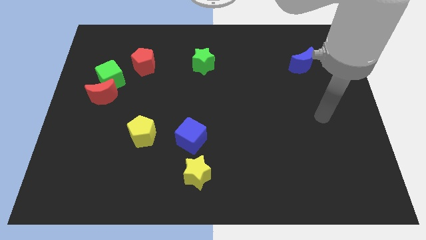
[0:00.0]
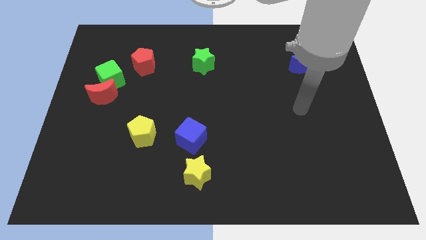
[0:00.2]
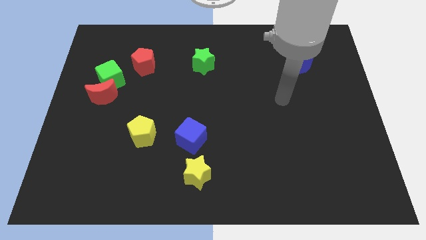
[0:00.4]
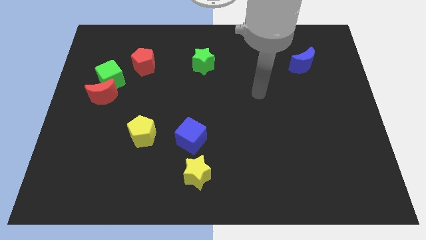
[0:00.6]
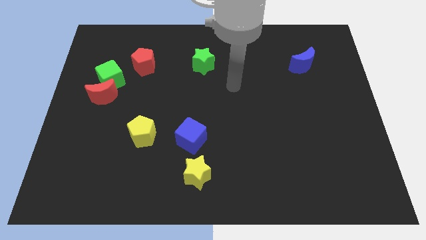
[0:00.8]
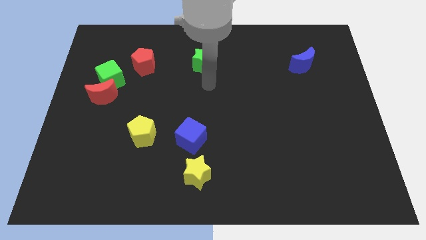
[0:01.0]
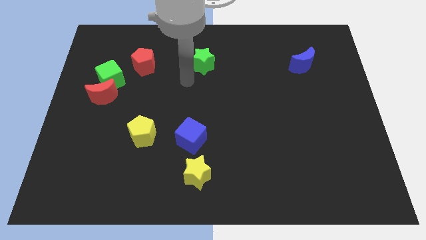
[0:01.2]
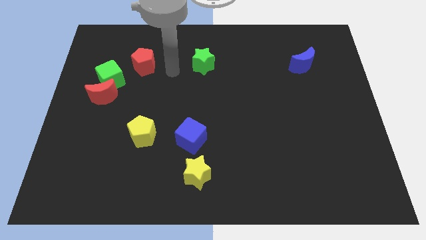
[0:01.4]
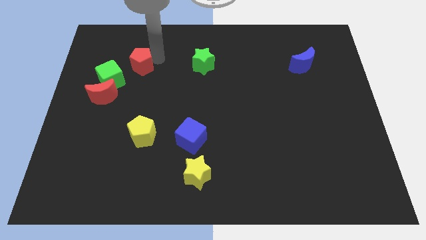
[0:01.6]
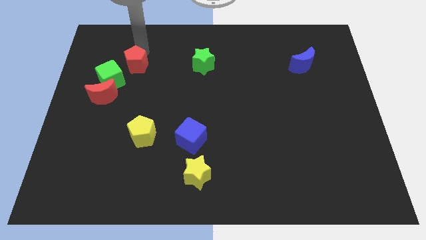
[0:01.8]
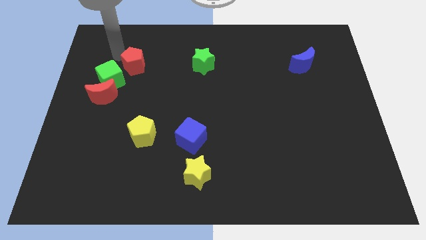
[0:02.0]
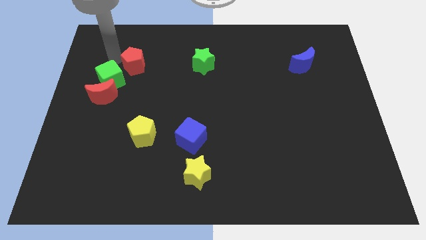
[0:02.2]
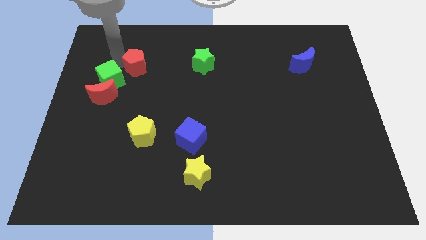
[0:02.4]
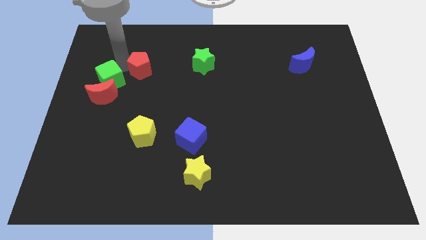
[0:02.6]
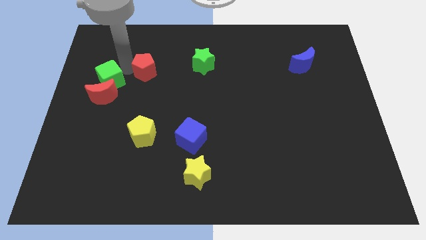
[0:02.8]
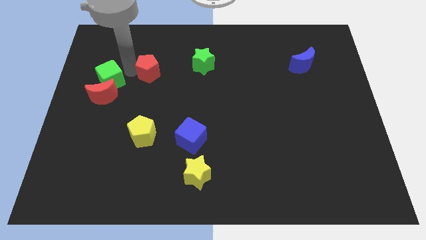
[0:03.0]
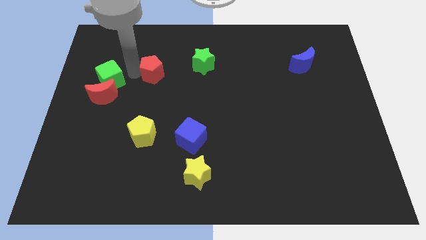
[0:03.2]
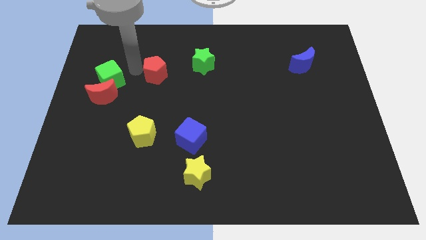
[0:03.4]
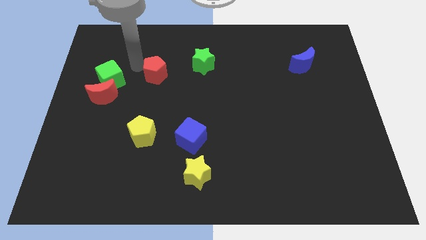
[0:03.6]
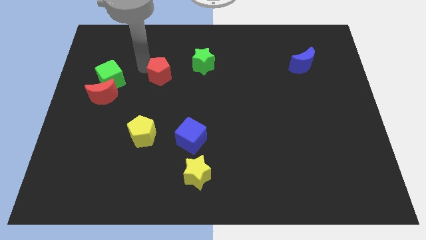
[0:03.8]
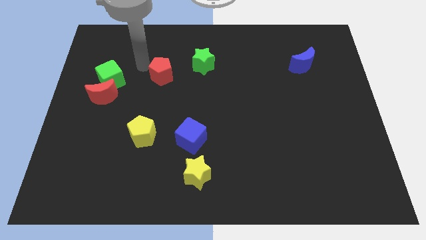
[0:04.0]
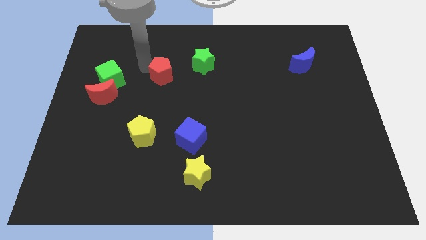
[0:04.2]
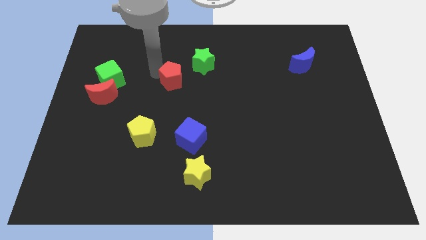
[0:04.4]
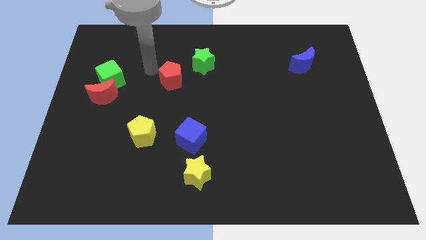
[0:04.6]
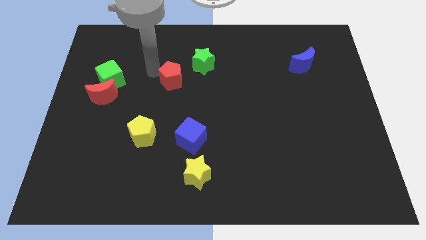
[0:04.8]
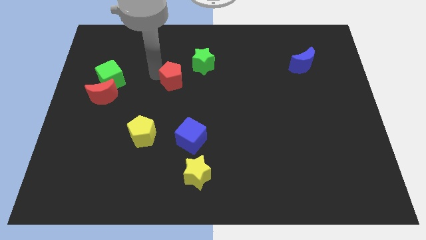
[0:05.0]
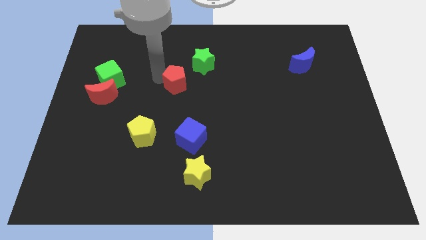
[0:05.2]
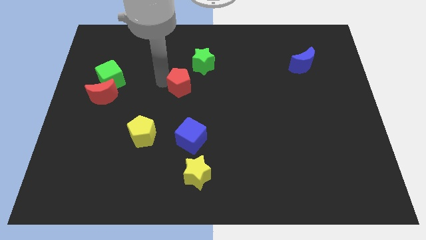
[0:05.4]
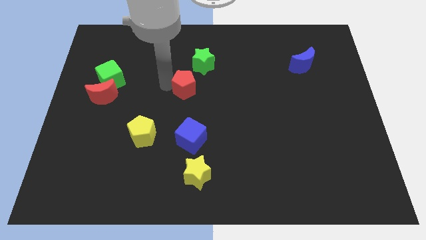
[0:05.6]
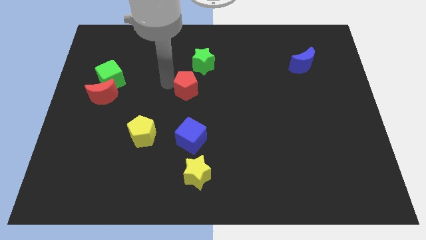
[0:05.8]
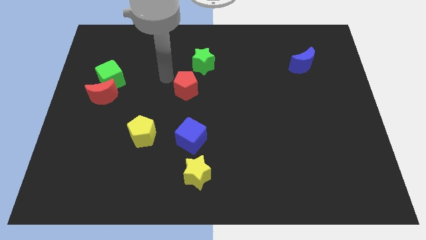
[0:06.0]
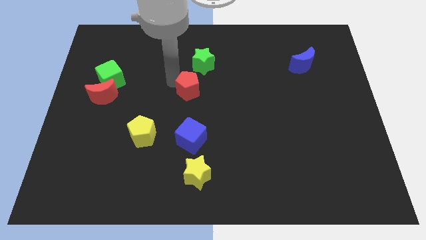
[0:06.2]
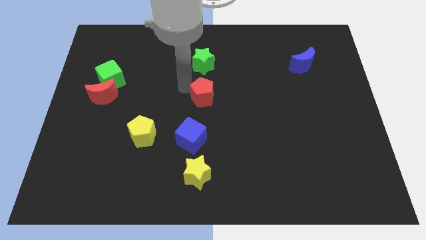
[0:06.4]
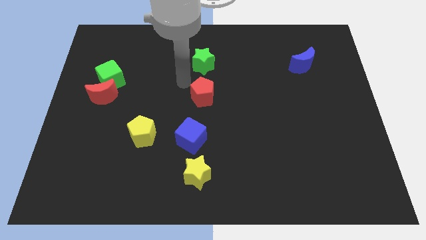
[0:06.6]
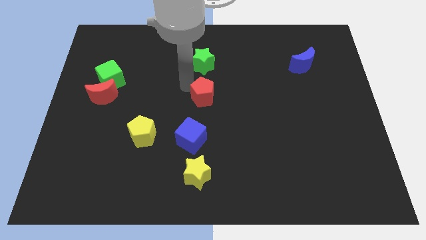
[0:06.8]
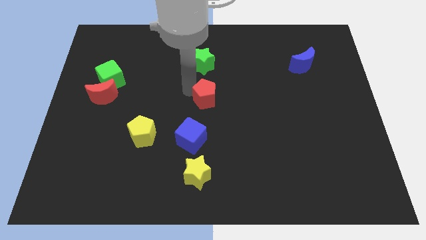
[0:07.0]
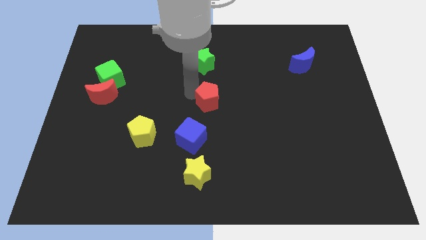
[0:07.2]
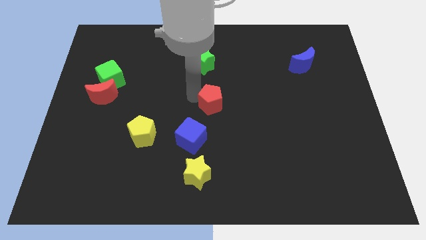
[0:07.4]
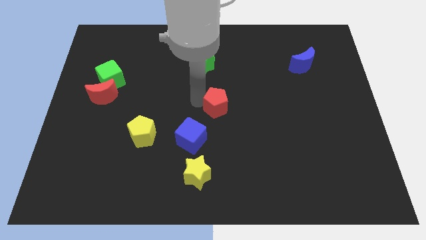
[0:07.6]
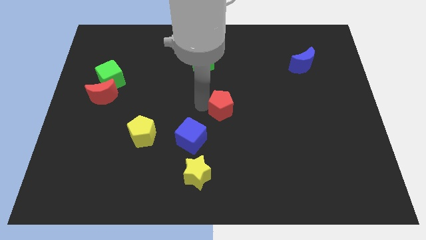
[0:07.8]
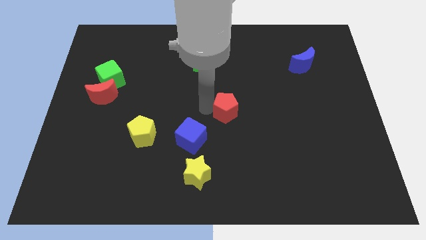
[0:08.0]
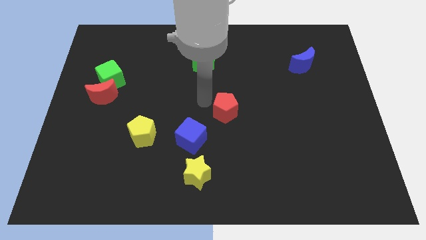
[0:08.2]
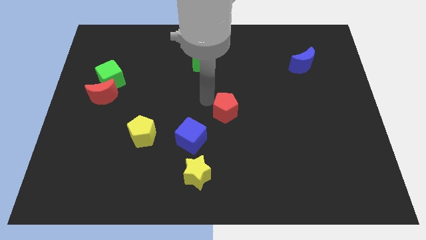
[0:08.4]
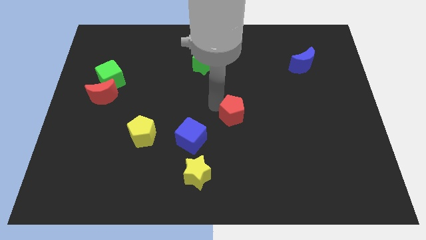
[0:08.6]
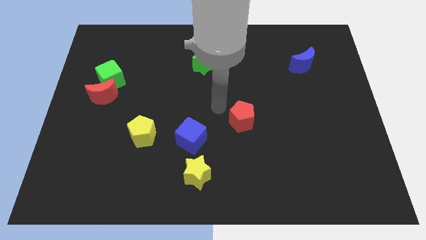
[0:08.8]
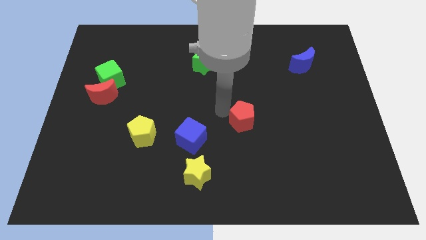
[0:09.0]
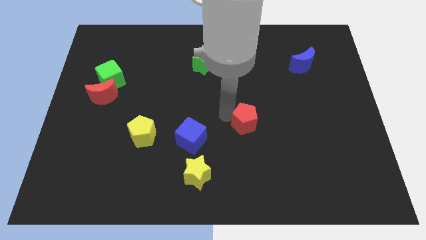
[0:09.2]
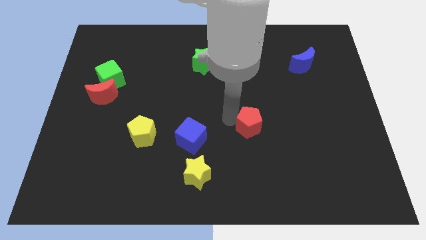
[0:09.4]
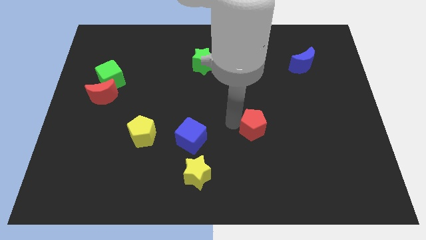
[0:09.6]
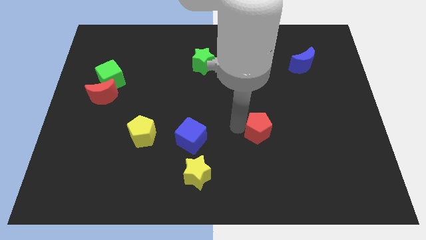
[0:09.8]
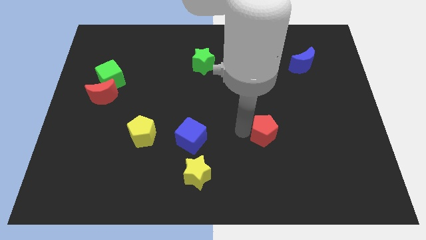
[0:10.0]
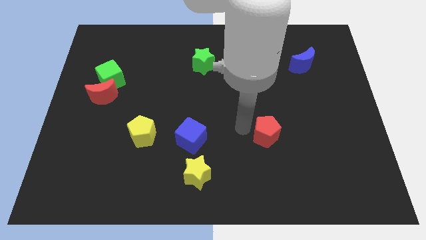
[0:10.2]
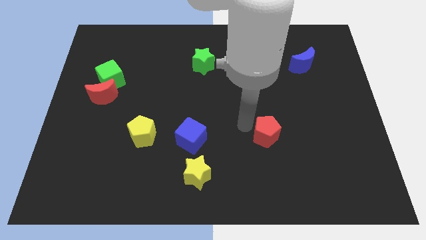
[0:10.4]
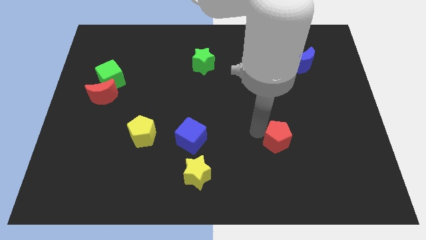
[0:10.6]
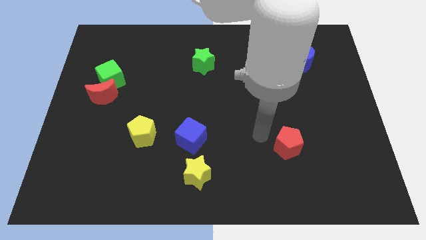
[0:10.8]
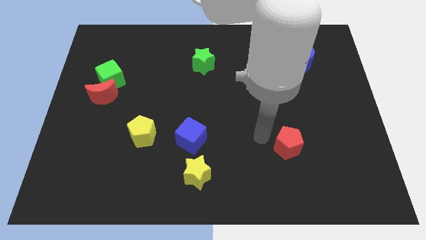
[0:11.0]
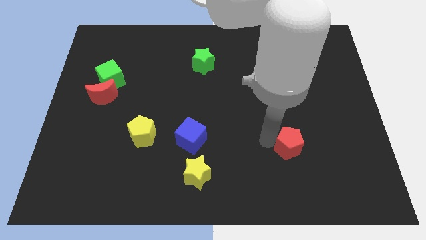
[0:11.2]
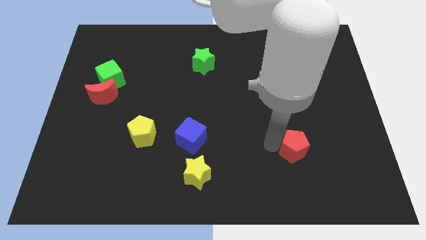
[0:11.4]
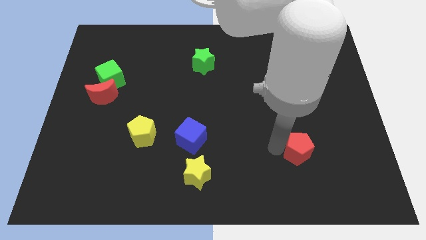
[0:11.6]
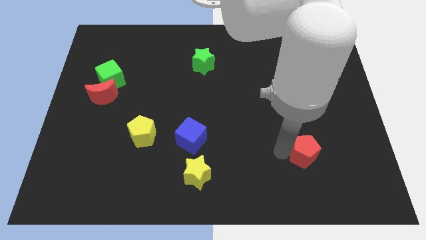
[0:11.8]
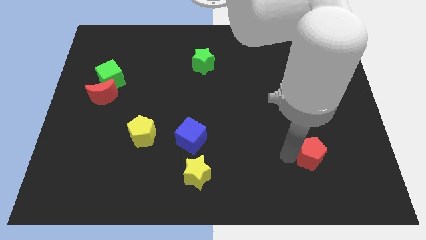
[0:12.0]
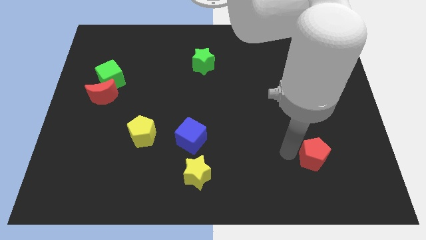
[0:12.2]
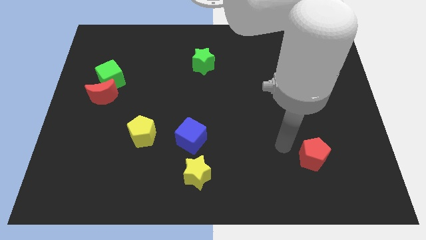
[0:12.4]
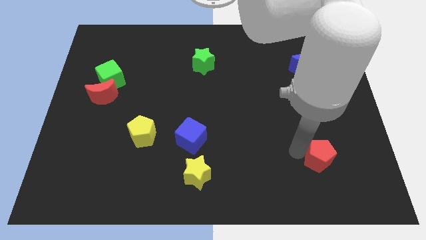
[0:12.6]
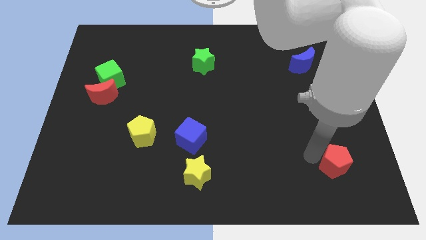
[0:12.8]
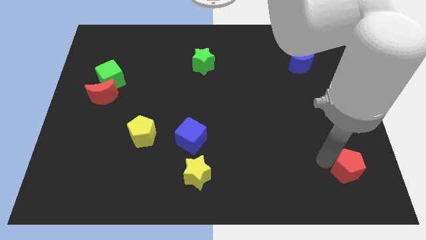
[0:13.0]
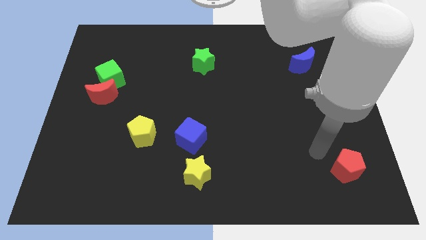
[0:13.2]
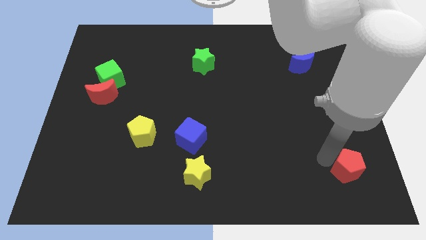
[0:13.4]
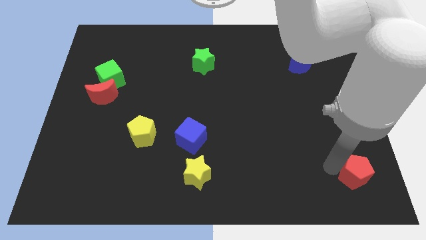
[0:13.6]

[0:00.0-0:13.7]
put the red pentagon to the lower right corner

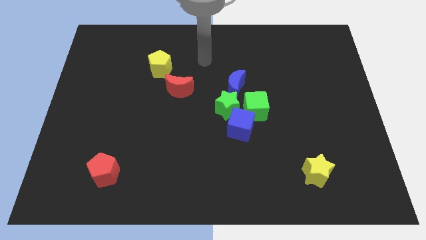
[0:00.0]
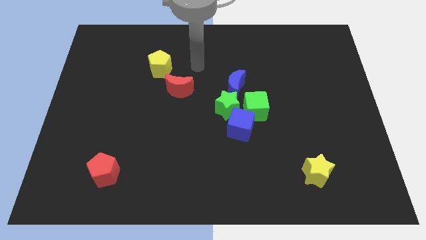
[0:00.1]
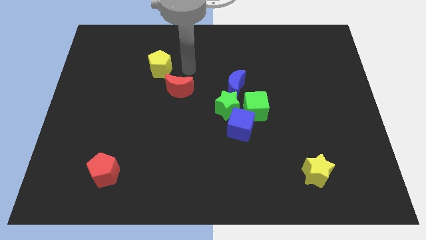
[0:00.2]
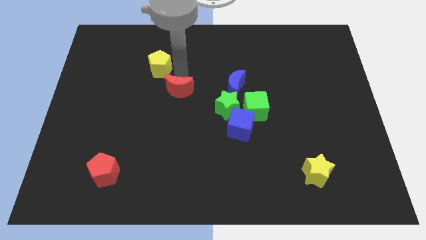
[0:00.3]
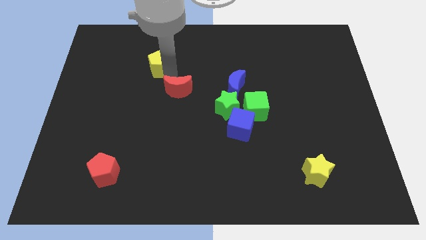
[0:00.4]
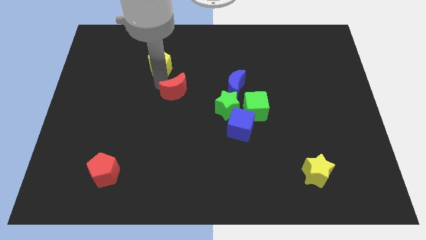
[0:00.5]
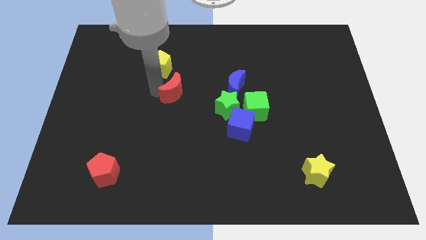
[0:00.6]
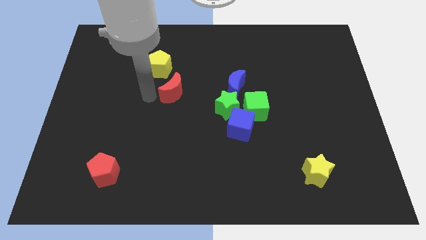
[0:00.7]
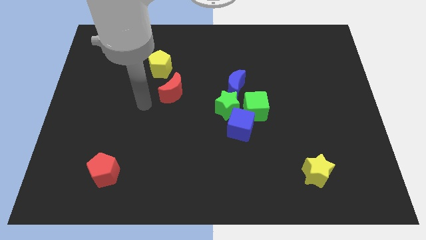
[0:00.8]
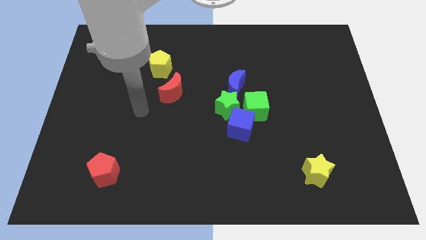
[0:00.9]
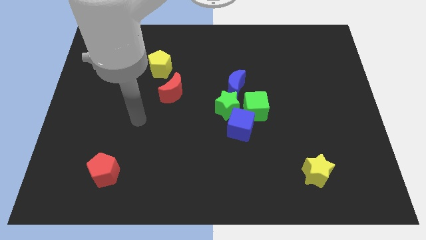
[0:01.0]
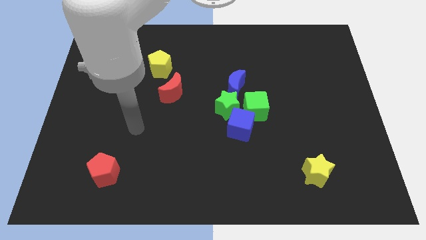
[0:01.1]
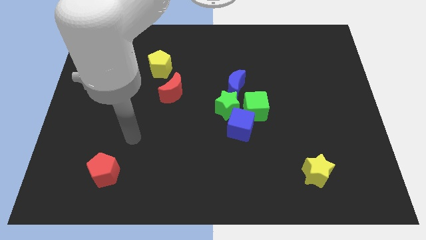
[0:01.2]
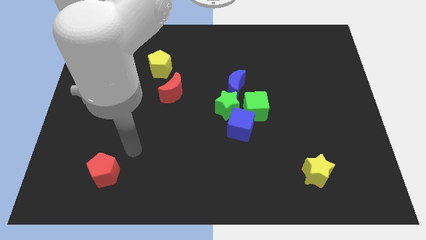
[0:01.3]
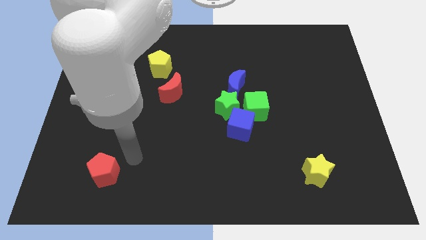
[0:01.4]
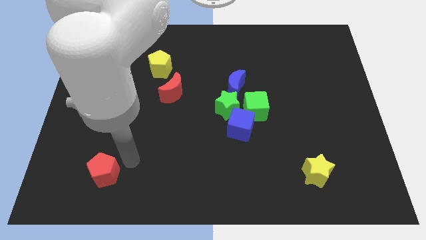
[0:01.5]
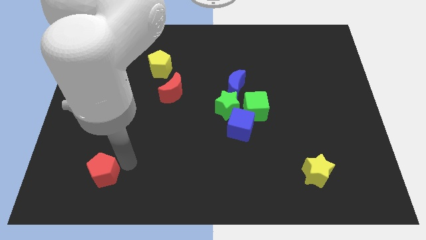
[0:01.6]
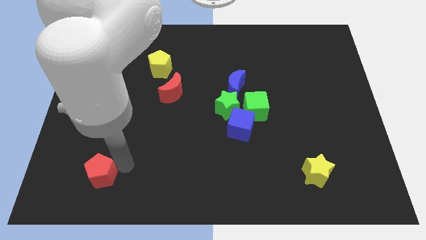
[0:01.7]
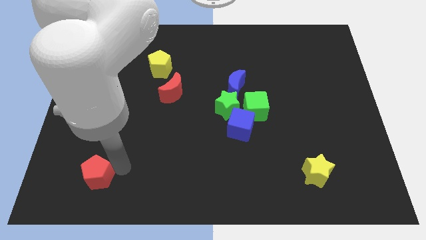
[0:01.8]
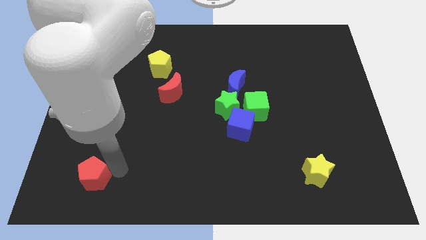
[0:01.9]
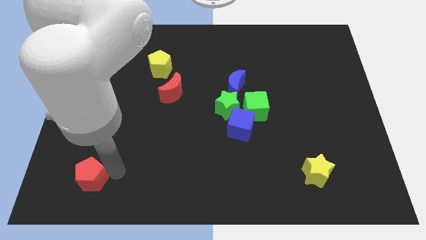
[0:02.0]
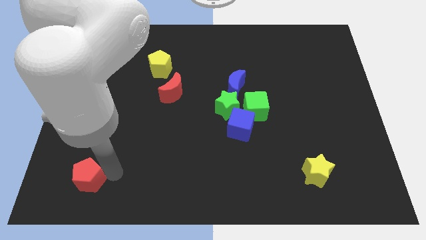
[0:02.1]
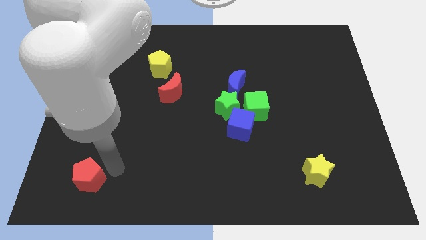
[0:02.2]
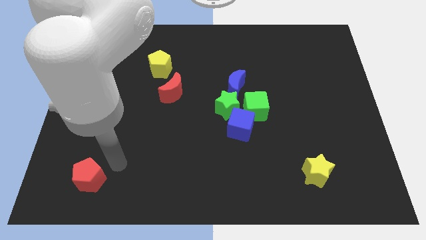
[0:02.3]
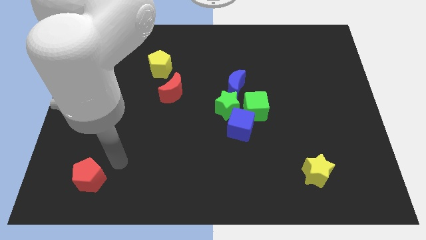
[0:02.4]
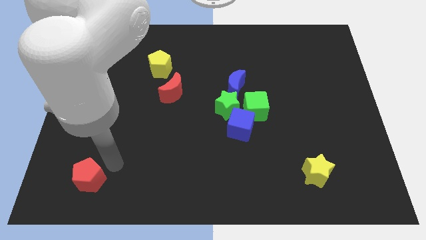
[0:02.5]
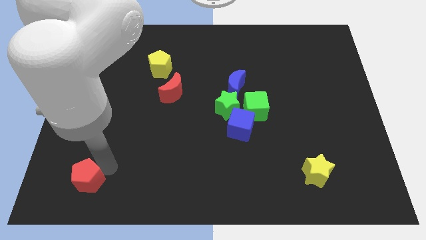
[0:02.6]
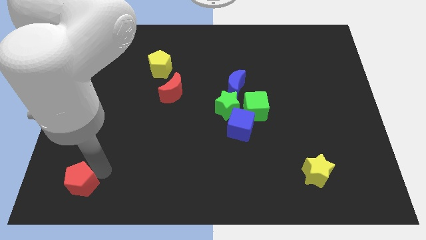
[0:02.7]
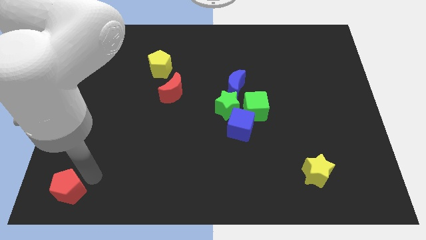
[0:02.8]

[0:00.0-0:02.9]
put the red pentagon to the bottom left
